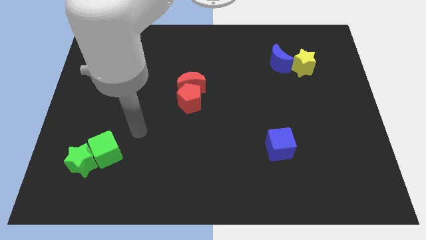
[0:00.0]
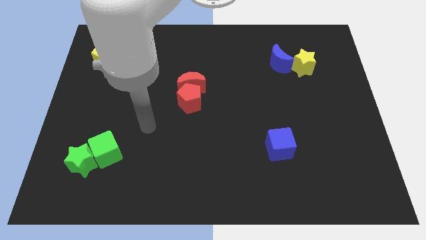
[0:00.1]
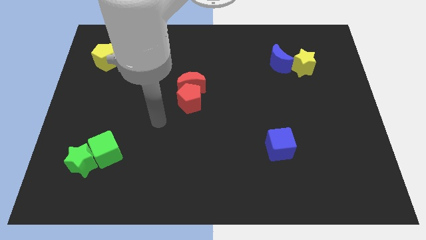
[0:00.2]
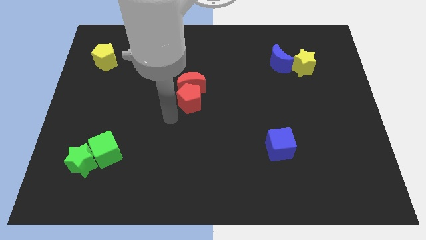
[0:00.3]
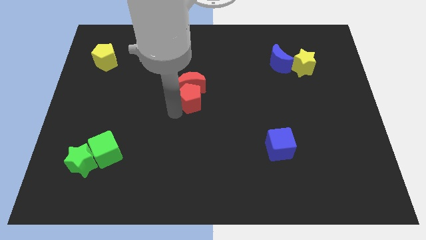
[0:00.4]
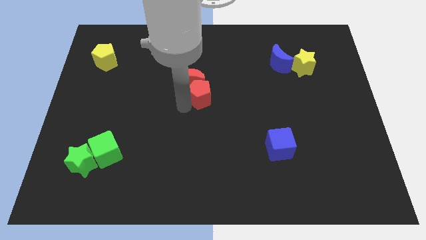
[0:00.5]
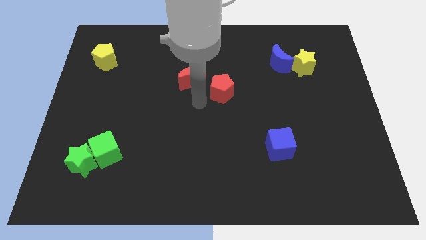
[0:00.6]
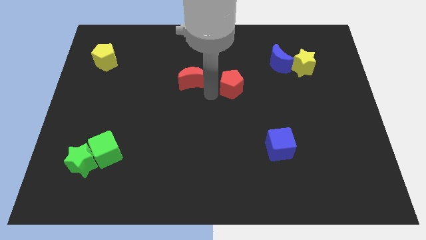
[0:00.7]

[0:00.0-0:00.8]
pull the red moon apart from the red pentagon

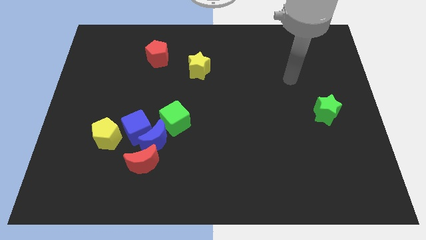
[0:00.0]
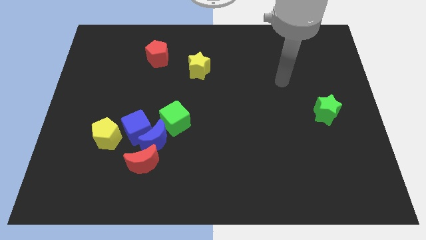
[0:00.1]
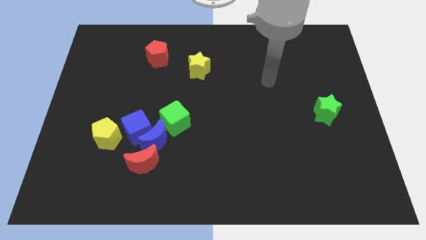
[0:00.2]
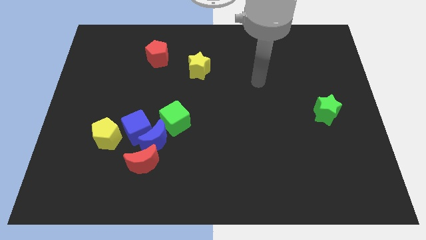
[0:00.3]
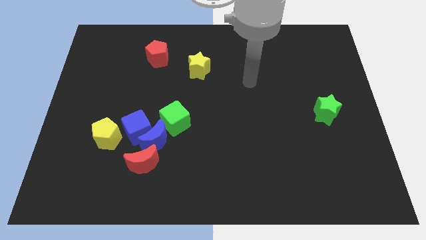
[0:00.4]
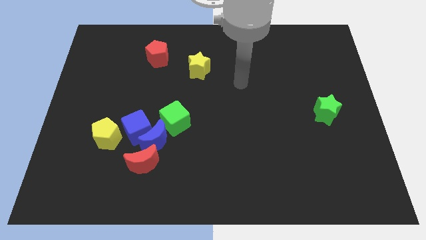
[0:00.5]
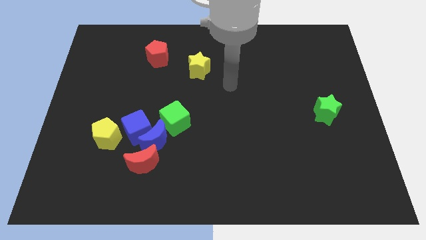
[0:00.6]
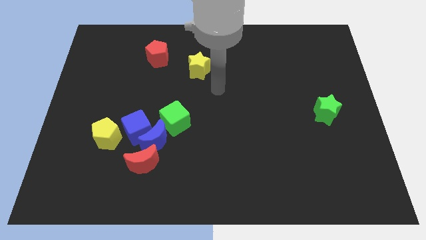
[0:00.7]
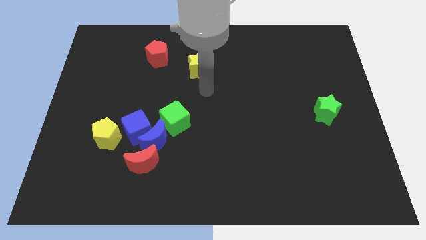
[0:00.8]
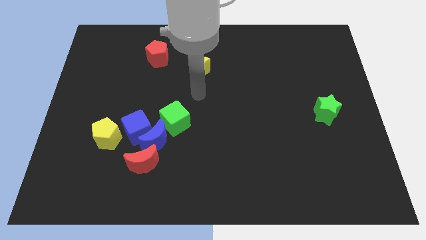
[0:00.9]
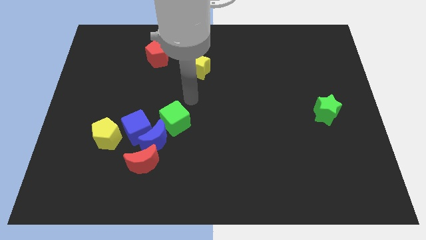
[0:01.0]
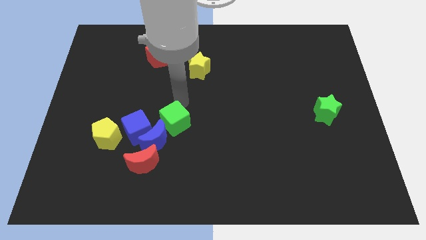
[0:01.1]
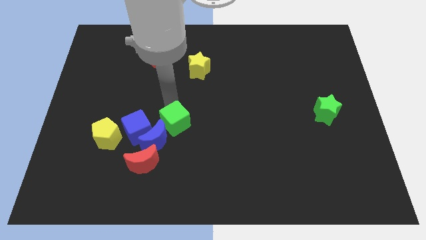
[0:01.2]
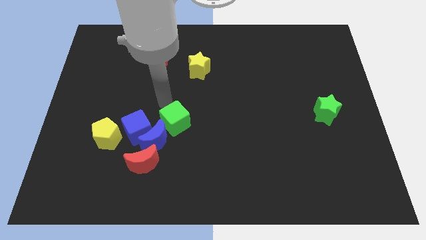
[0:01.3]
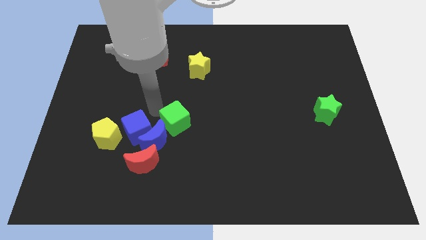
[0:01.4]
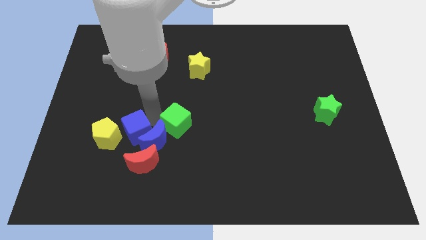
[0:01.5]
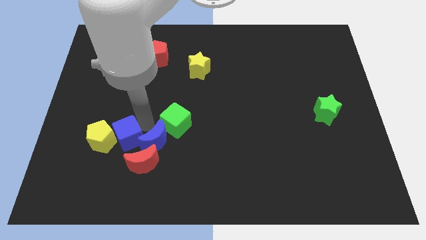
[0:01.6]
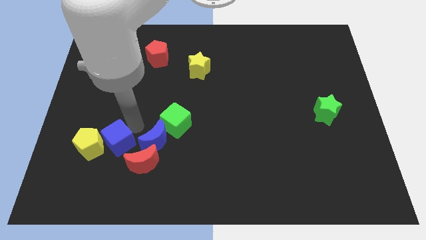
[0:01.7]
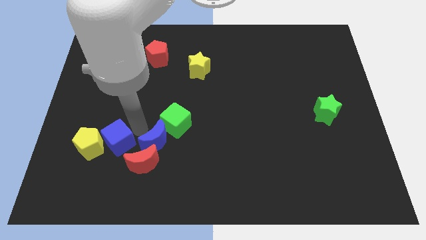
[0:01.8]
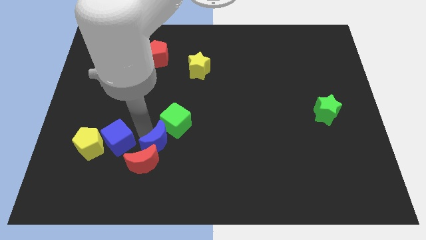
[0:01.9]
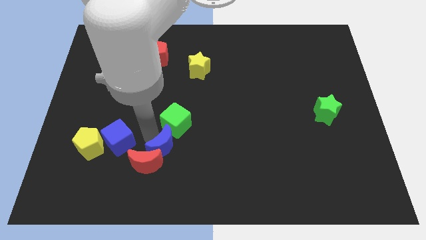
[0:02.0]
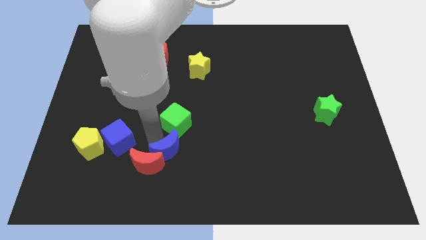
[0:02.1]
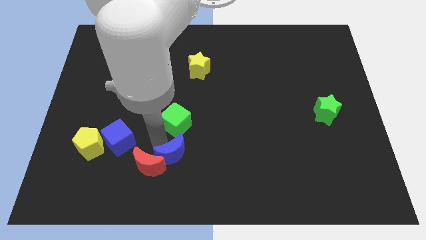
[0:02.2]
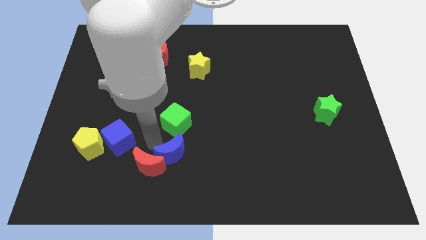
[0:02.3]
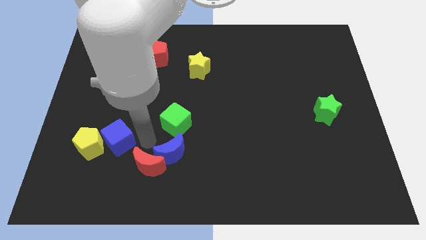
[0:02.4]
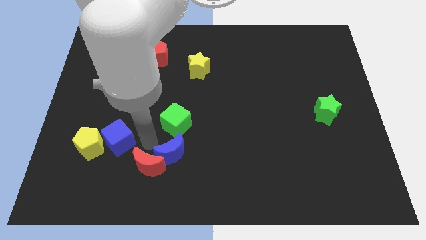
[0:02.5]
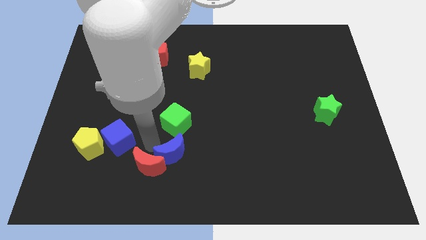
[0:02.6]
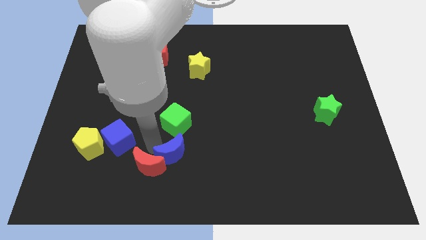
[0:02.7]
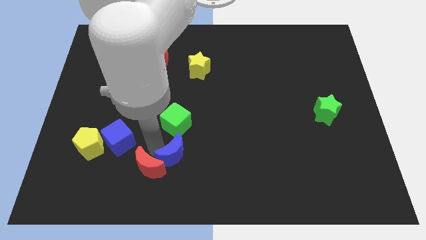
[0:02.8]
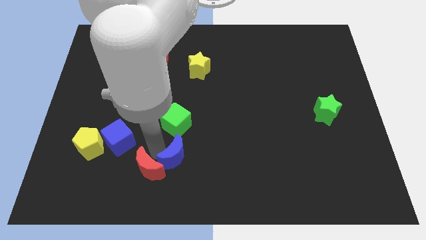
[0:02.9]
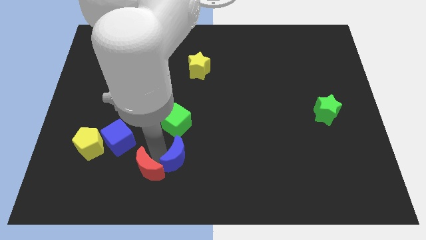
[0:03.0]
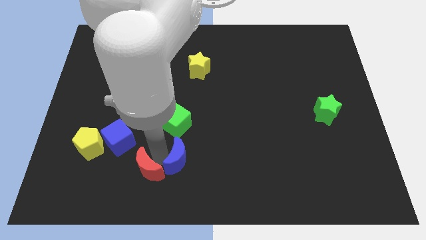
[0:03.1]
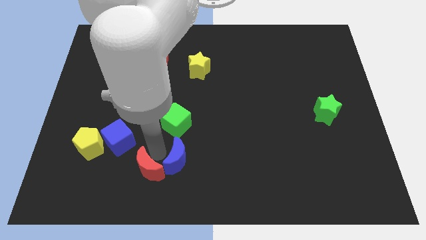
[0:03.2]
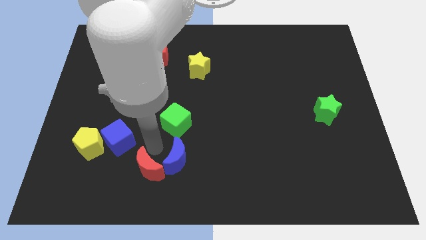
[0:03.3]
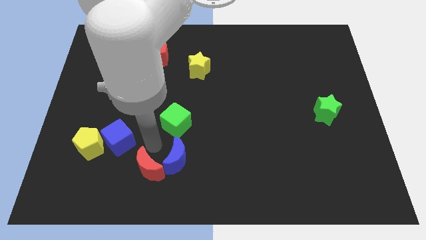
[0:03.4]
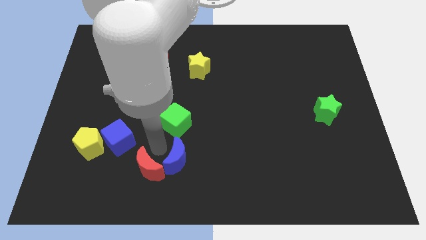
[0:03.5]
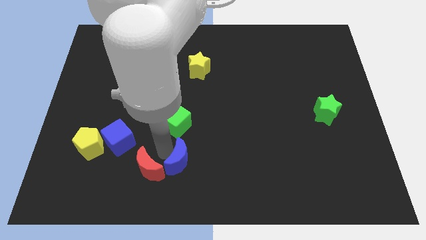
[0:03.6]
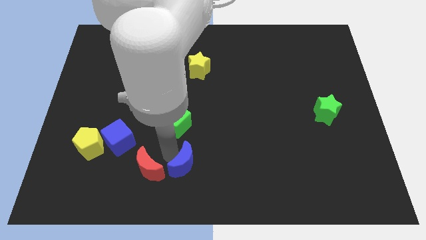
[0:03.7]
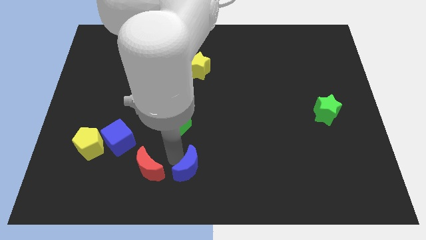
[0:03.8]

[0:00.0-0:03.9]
pull the blue moon apart from the group of blocks

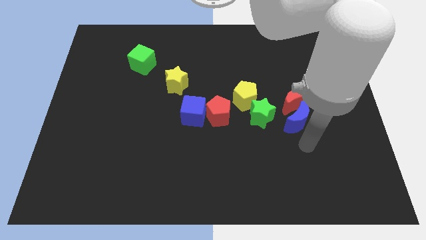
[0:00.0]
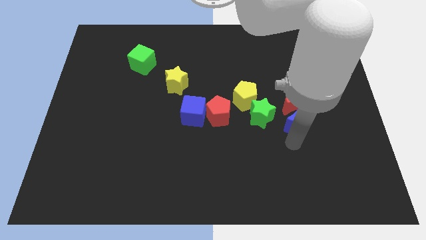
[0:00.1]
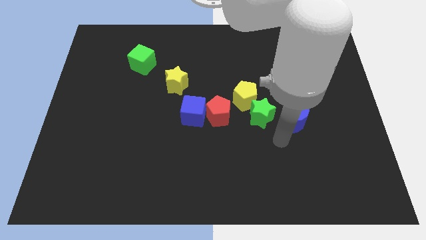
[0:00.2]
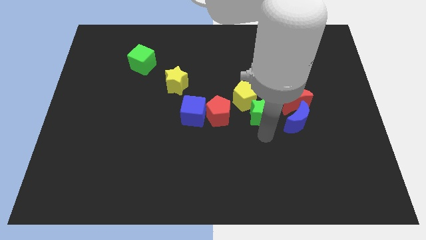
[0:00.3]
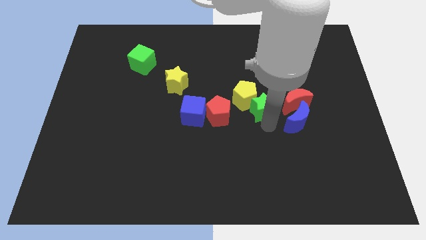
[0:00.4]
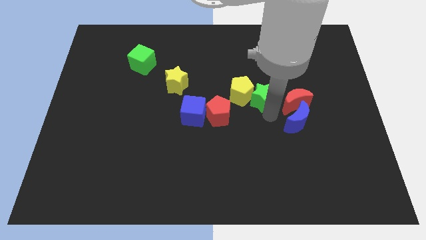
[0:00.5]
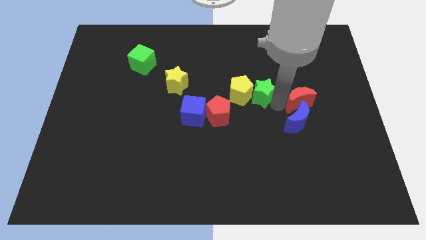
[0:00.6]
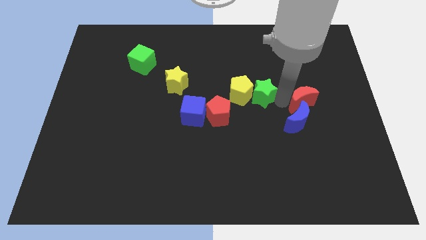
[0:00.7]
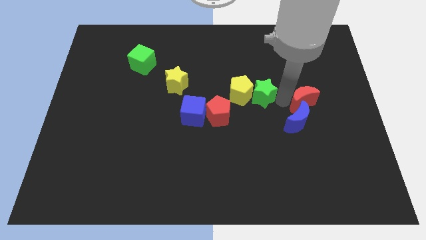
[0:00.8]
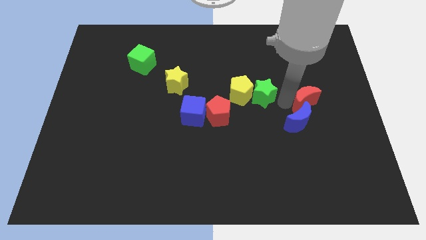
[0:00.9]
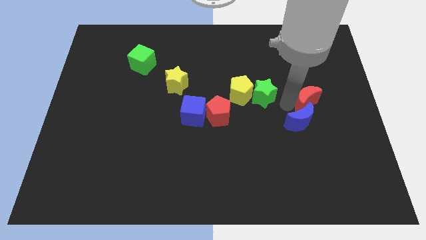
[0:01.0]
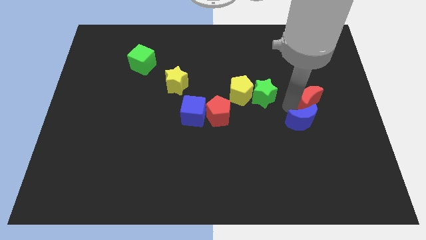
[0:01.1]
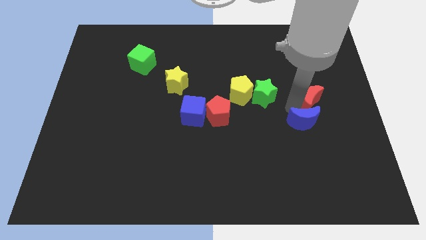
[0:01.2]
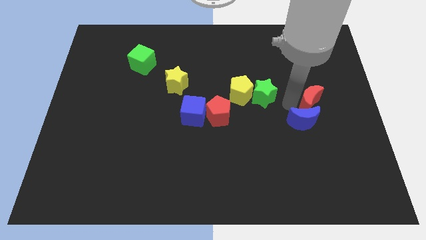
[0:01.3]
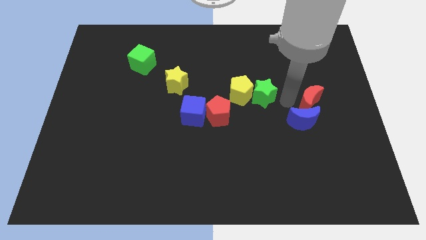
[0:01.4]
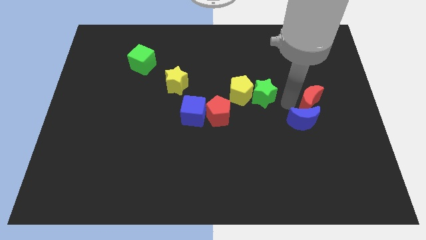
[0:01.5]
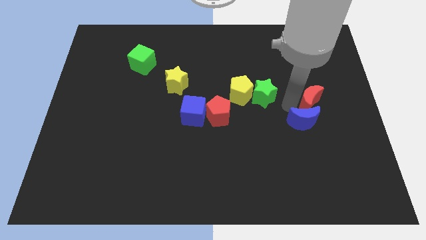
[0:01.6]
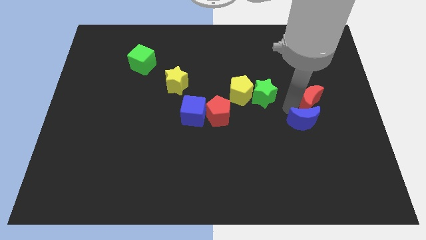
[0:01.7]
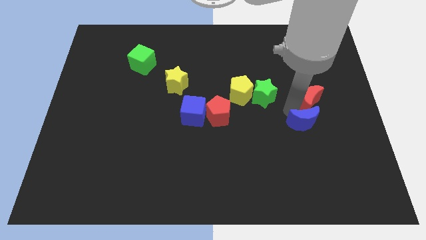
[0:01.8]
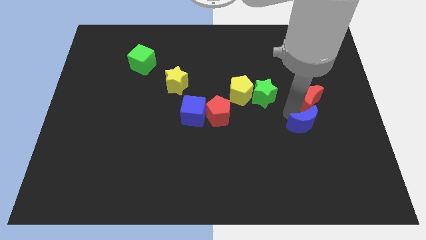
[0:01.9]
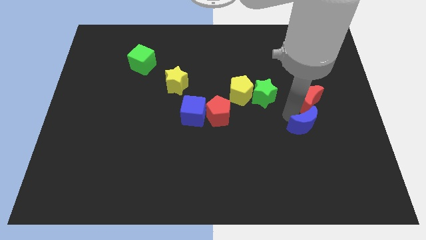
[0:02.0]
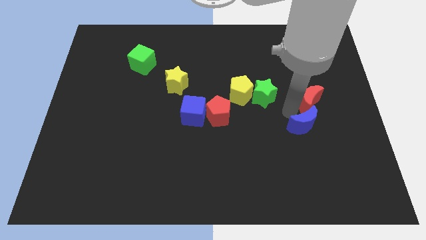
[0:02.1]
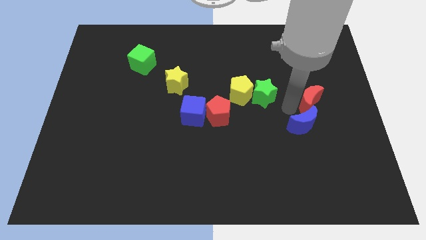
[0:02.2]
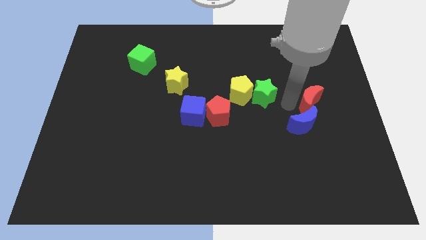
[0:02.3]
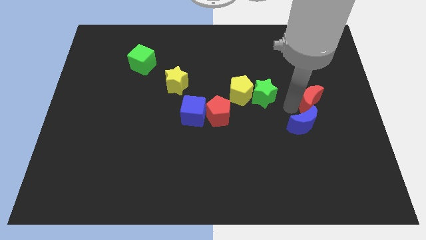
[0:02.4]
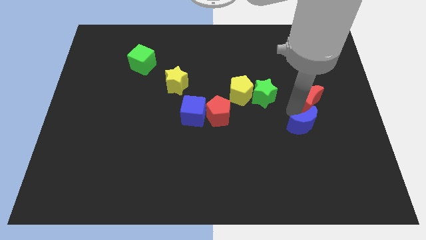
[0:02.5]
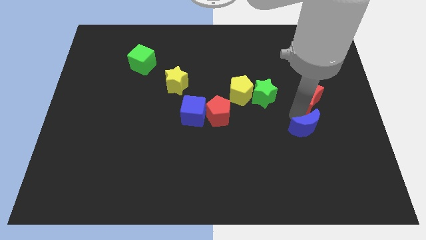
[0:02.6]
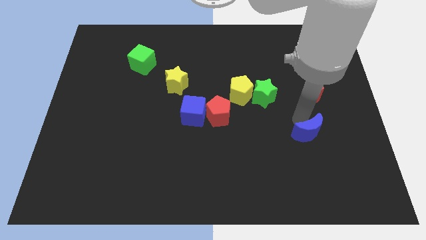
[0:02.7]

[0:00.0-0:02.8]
pull the blue moon apart from the red moon and green star

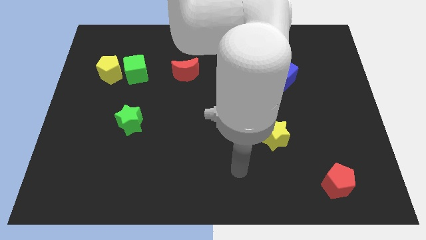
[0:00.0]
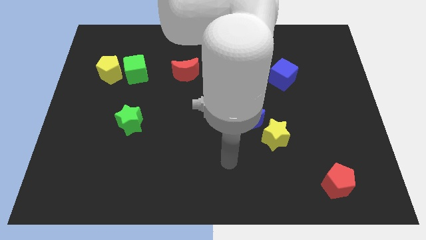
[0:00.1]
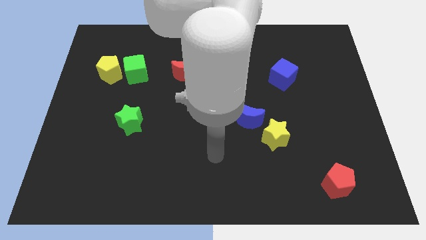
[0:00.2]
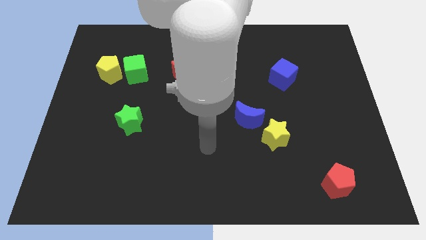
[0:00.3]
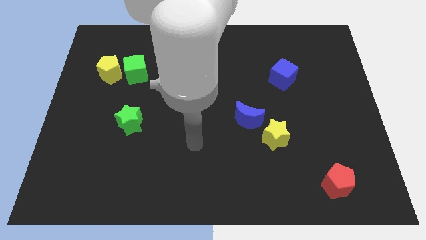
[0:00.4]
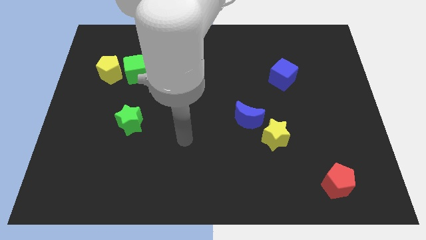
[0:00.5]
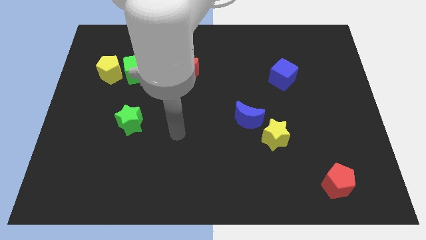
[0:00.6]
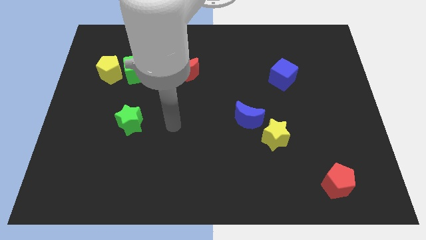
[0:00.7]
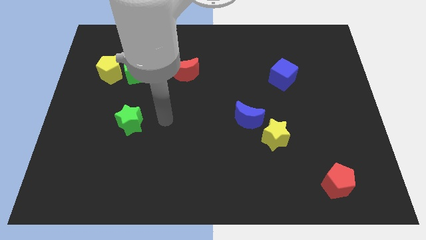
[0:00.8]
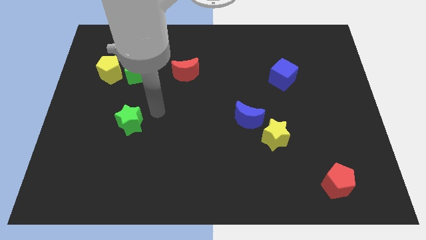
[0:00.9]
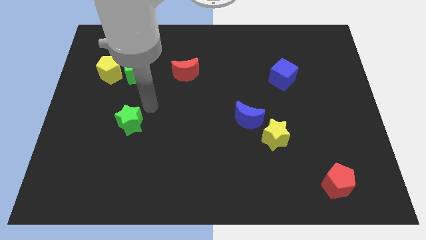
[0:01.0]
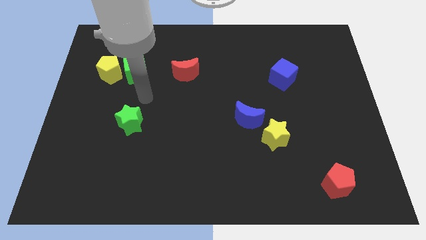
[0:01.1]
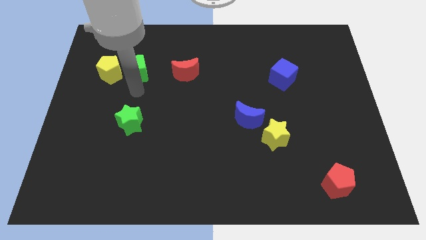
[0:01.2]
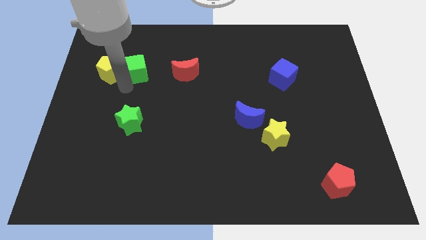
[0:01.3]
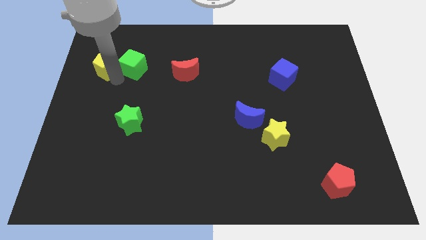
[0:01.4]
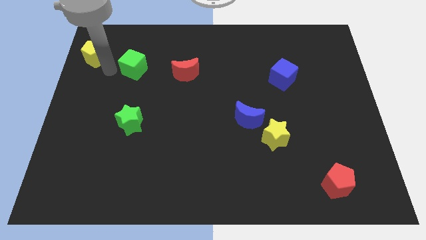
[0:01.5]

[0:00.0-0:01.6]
separate the green cube from the yellow pentagon

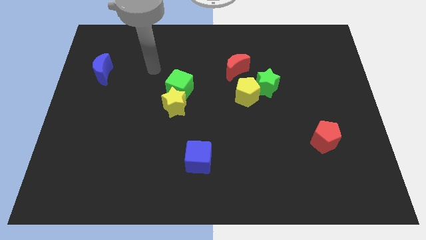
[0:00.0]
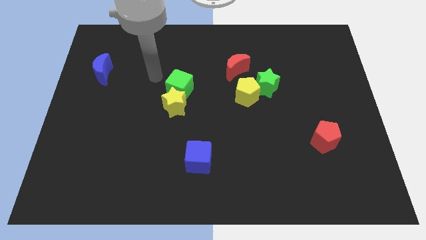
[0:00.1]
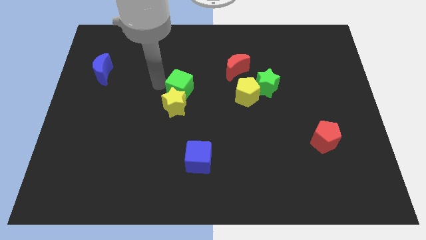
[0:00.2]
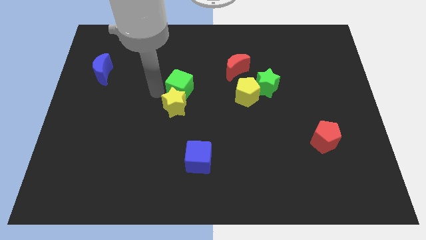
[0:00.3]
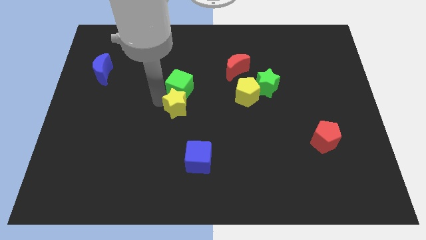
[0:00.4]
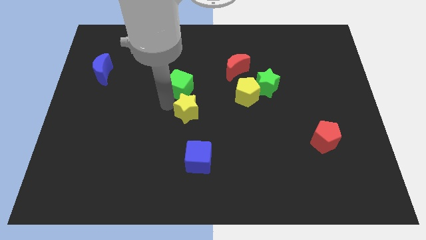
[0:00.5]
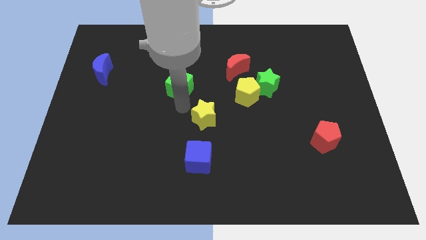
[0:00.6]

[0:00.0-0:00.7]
move the green cube away from the yellow star
